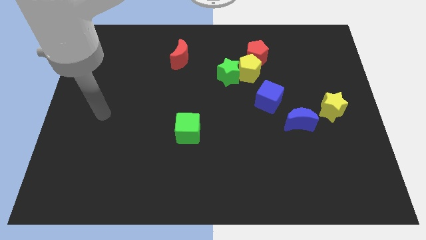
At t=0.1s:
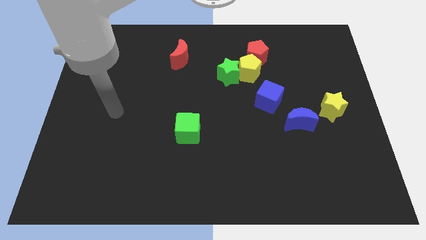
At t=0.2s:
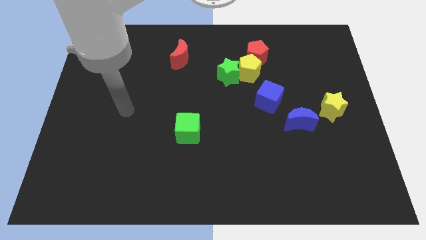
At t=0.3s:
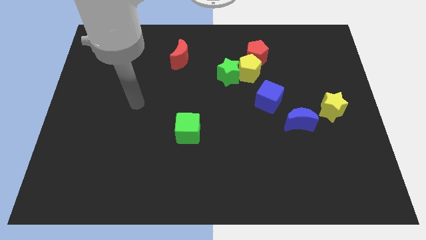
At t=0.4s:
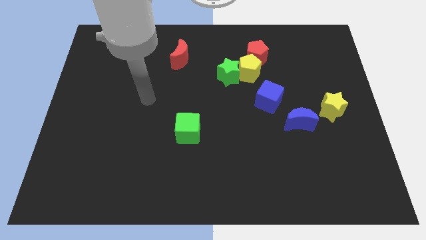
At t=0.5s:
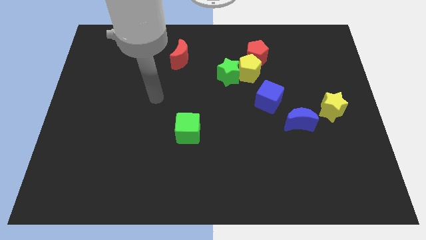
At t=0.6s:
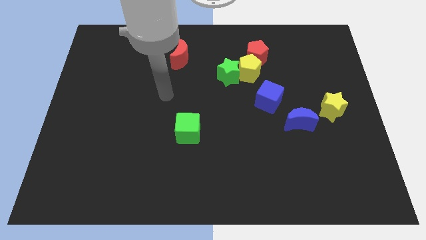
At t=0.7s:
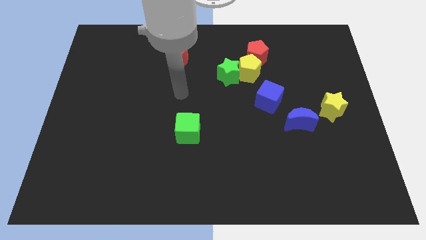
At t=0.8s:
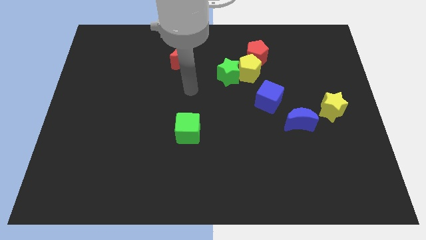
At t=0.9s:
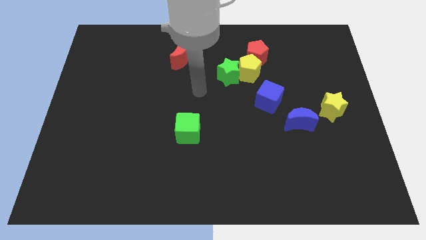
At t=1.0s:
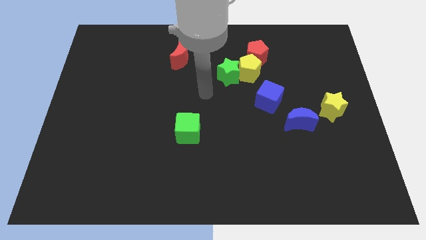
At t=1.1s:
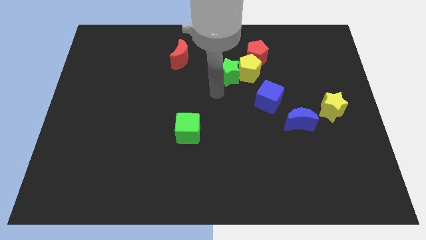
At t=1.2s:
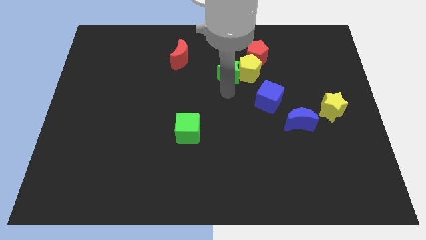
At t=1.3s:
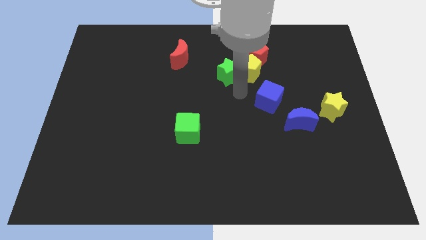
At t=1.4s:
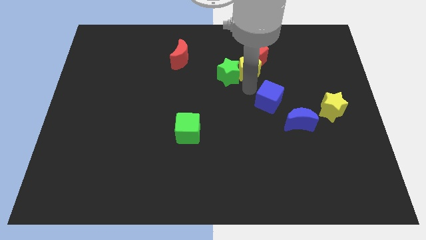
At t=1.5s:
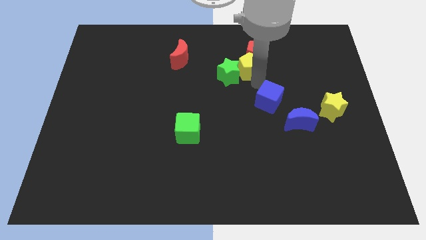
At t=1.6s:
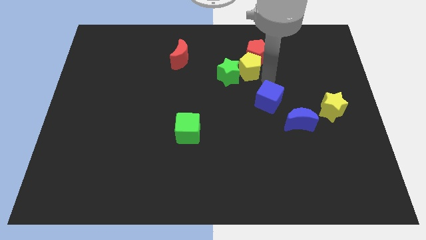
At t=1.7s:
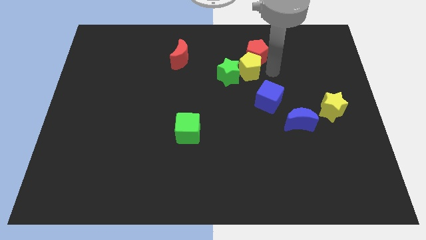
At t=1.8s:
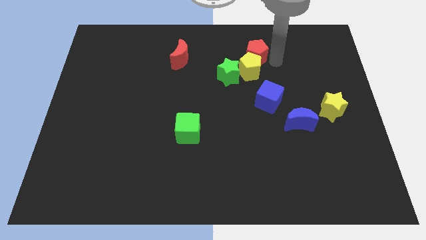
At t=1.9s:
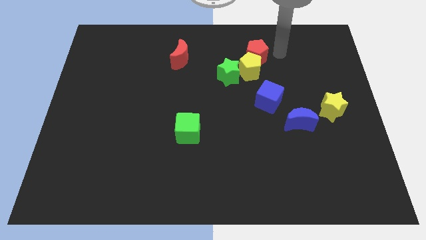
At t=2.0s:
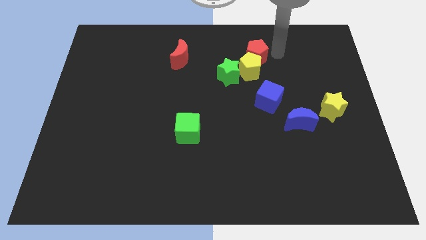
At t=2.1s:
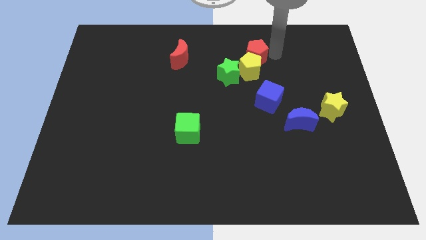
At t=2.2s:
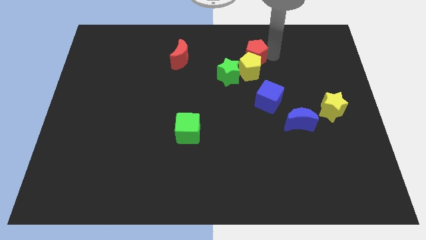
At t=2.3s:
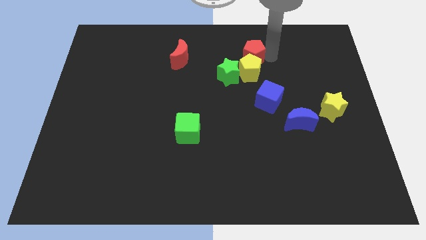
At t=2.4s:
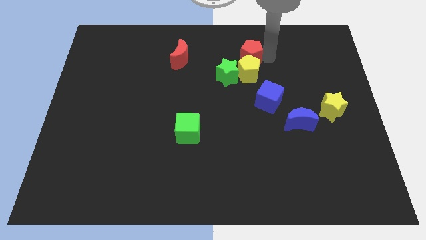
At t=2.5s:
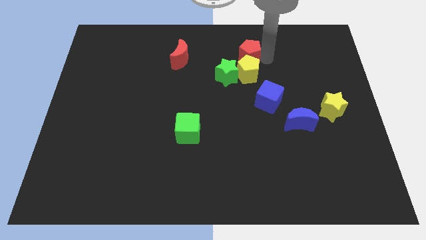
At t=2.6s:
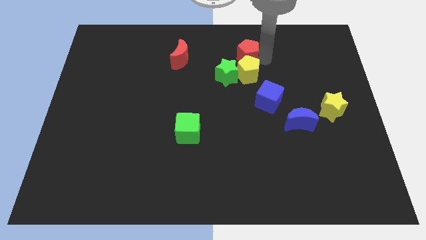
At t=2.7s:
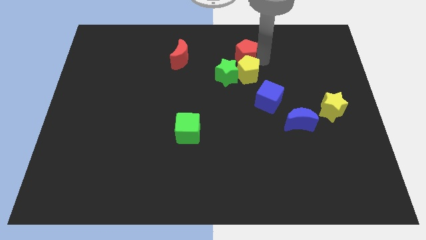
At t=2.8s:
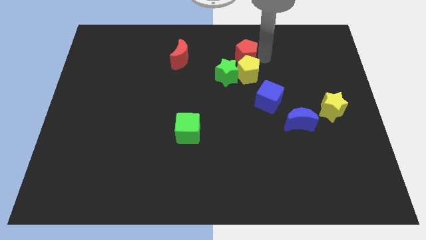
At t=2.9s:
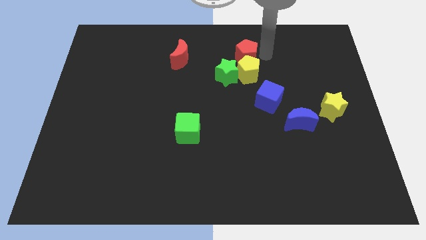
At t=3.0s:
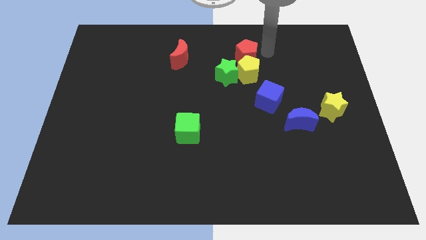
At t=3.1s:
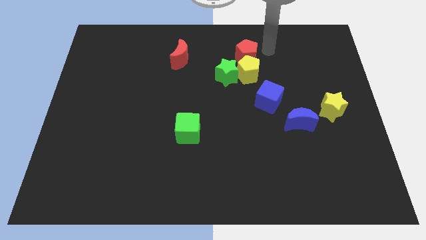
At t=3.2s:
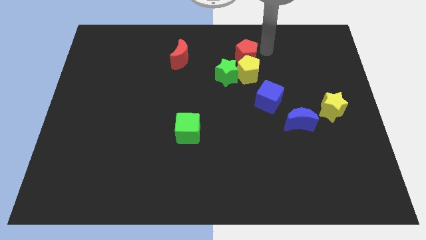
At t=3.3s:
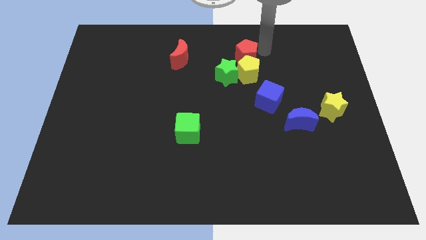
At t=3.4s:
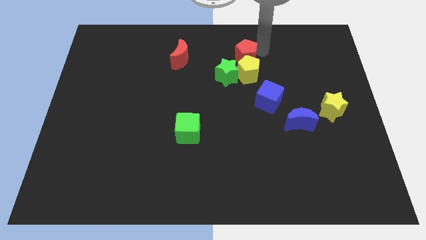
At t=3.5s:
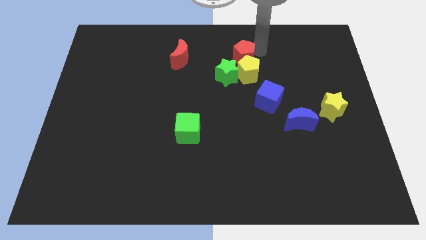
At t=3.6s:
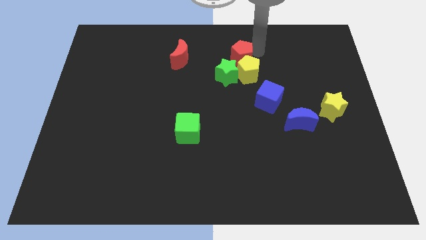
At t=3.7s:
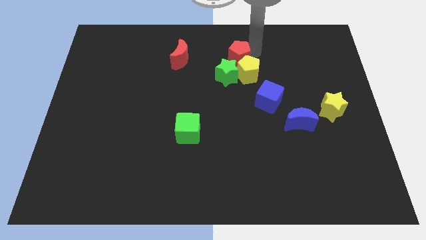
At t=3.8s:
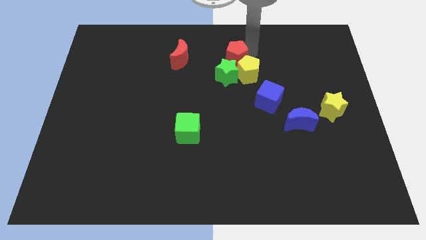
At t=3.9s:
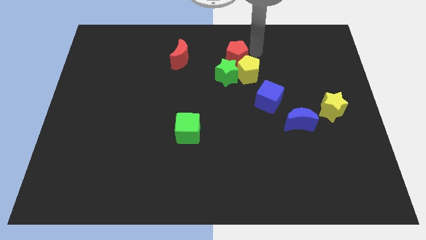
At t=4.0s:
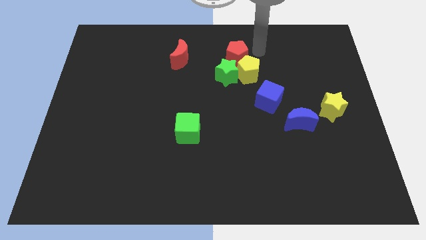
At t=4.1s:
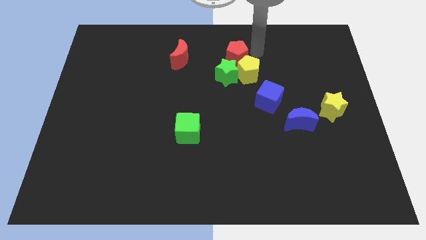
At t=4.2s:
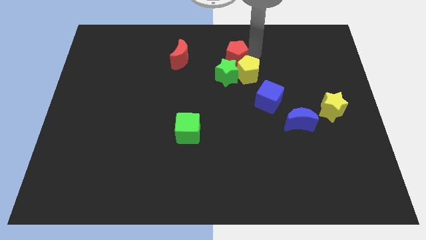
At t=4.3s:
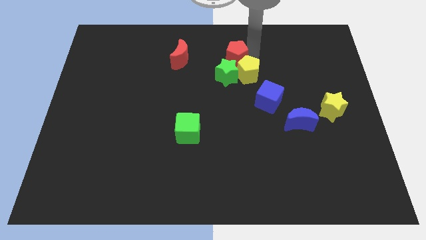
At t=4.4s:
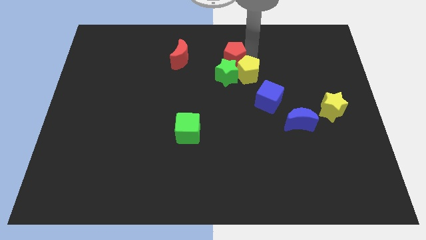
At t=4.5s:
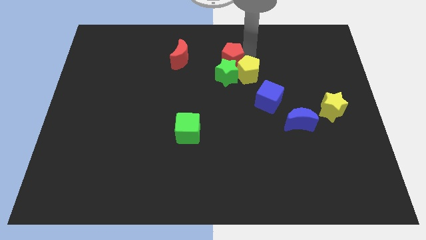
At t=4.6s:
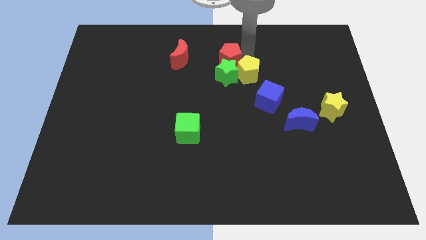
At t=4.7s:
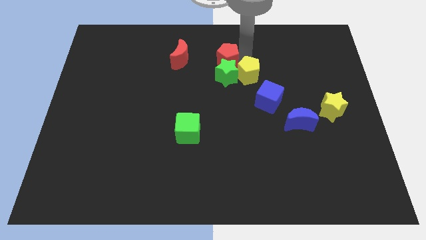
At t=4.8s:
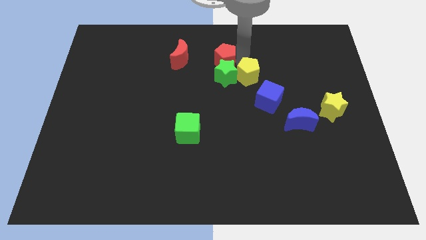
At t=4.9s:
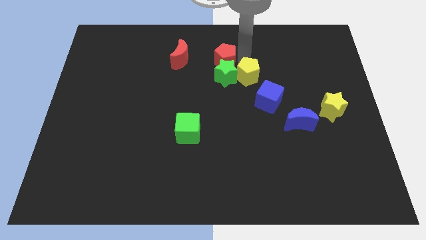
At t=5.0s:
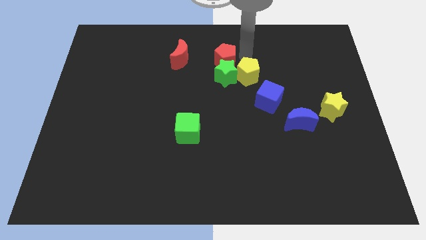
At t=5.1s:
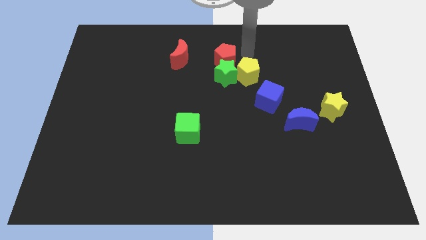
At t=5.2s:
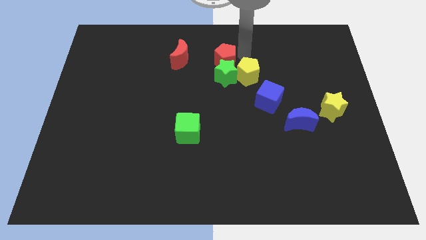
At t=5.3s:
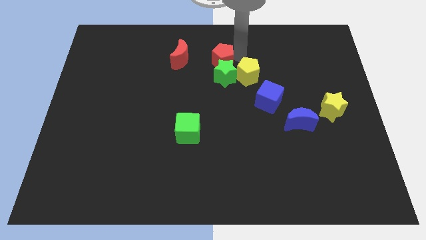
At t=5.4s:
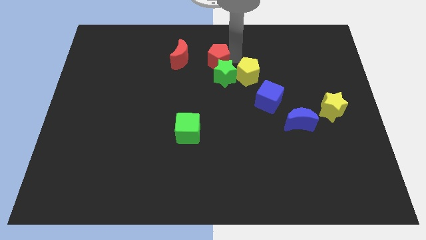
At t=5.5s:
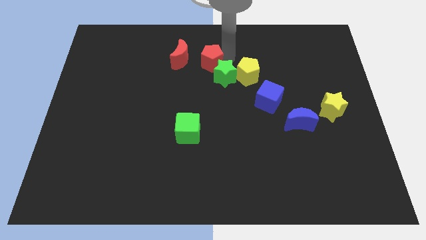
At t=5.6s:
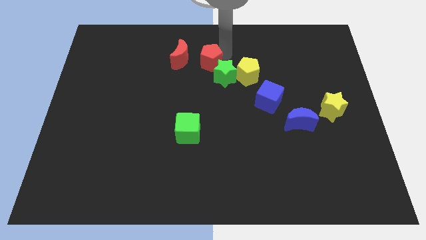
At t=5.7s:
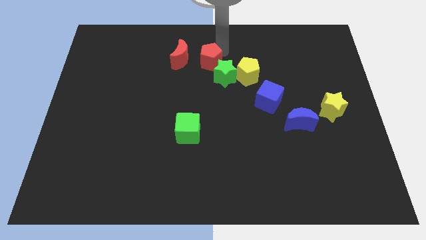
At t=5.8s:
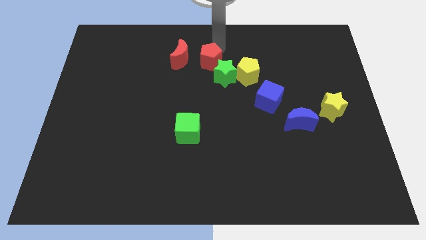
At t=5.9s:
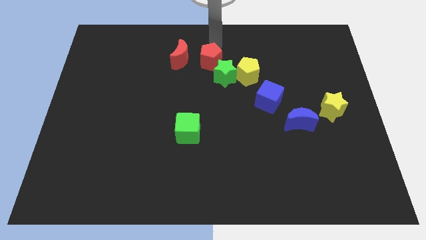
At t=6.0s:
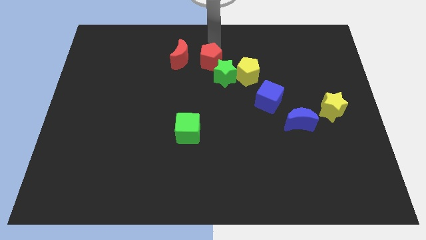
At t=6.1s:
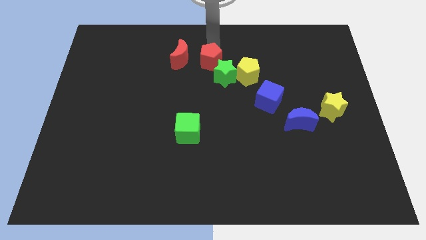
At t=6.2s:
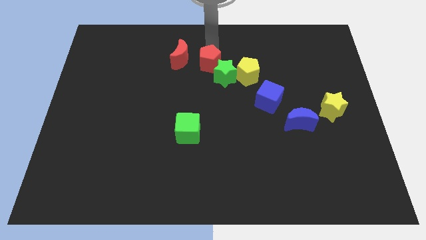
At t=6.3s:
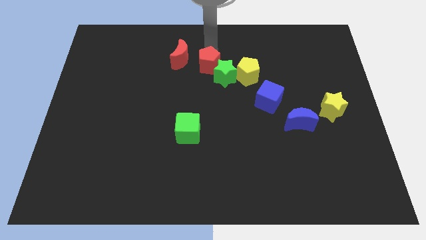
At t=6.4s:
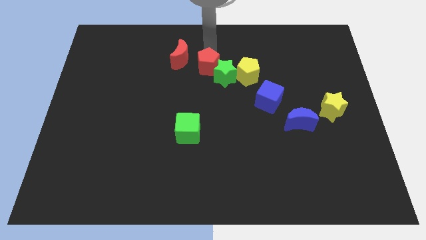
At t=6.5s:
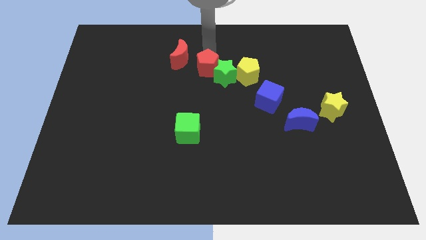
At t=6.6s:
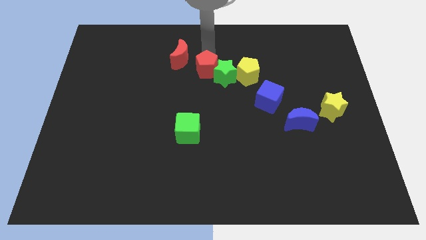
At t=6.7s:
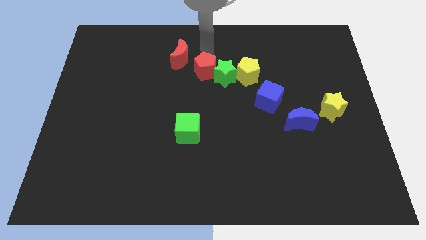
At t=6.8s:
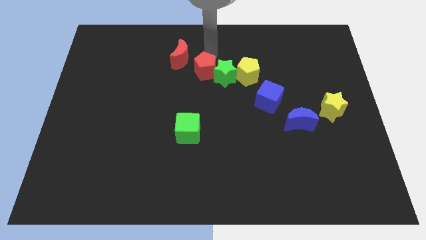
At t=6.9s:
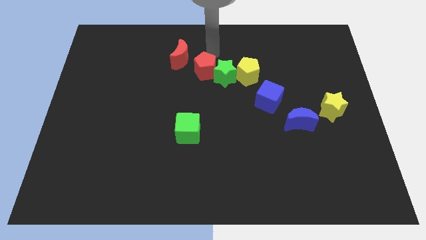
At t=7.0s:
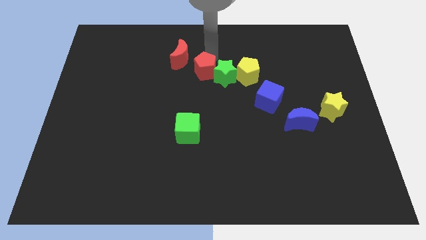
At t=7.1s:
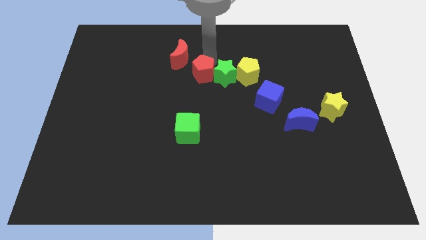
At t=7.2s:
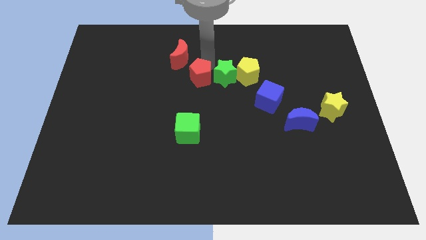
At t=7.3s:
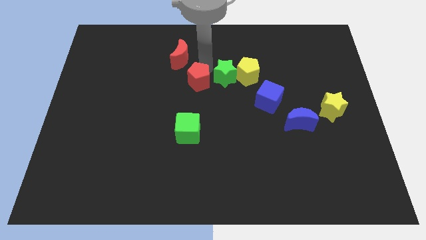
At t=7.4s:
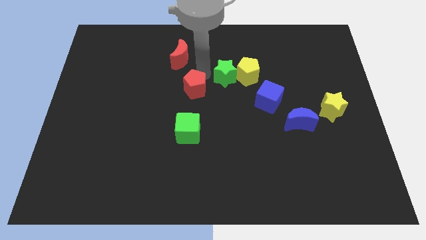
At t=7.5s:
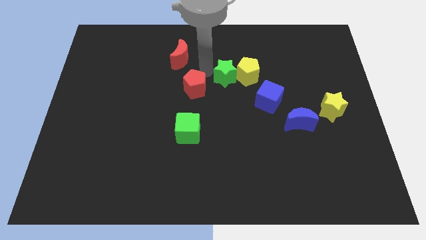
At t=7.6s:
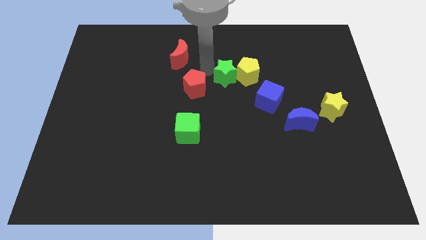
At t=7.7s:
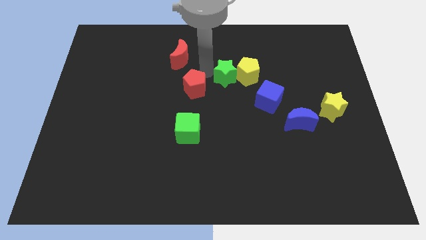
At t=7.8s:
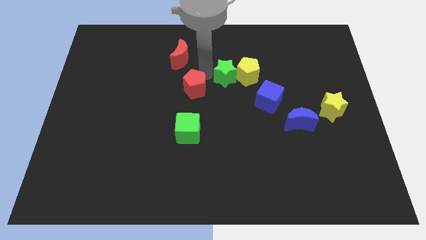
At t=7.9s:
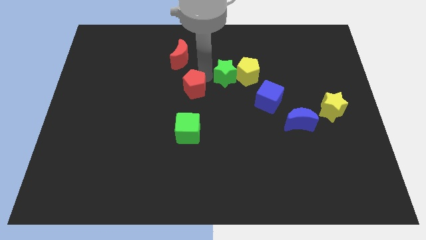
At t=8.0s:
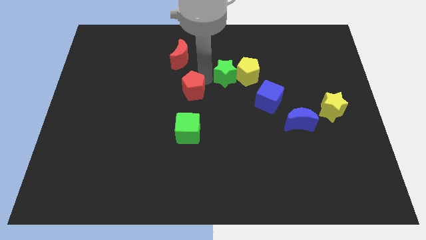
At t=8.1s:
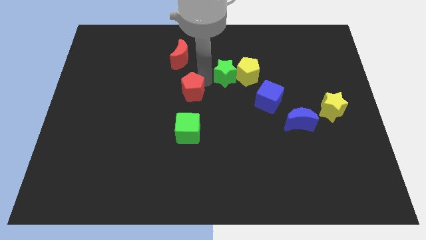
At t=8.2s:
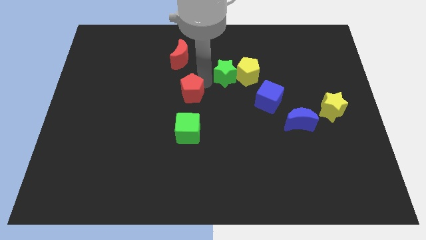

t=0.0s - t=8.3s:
move the red pentagon down and to the left diagonally
